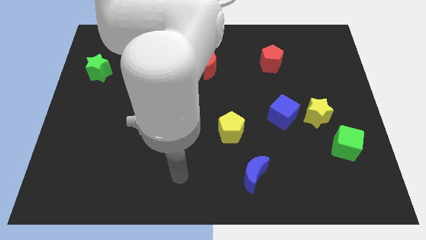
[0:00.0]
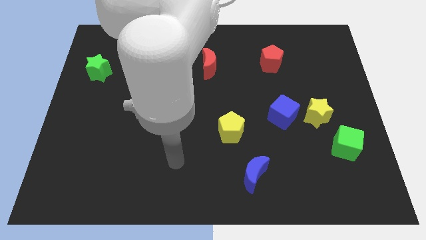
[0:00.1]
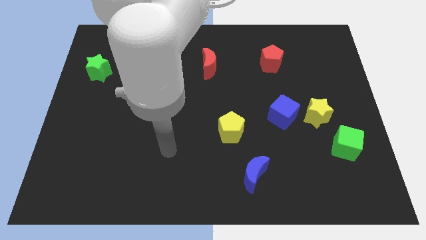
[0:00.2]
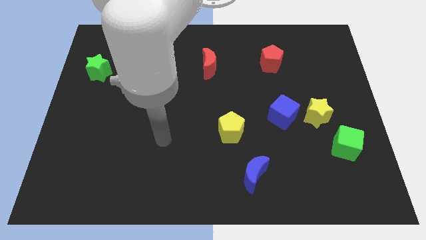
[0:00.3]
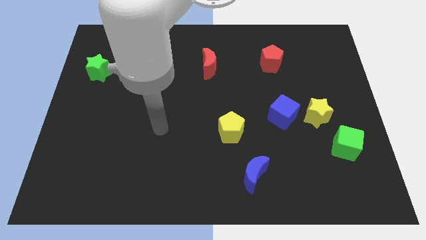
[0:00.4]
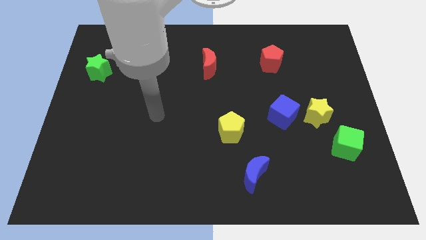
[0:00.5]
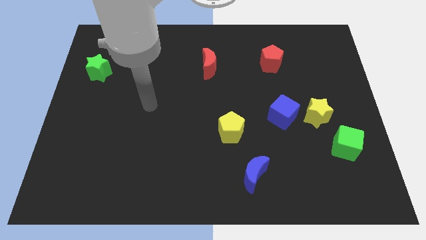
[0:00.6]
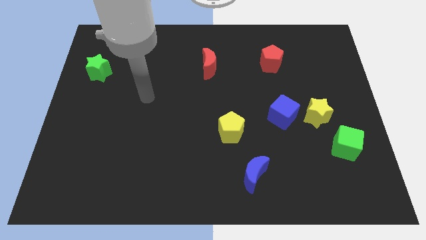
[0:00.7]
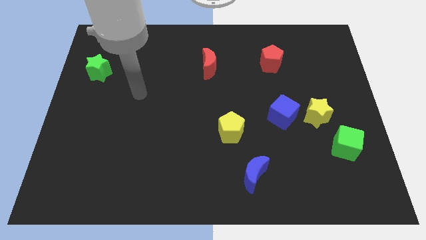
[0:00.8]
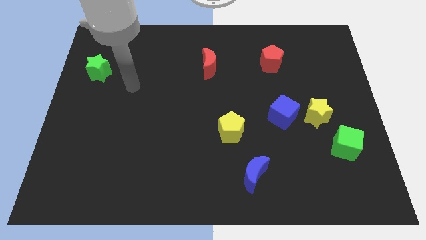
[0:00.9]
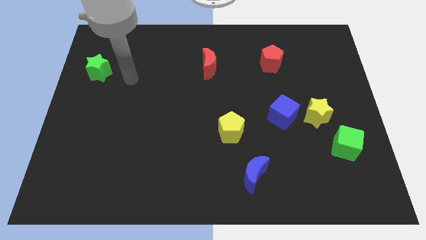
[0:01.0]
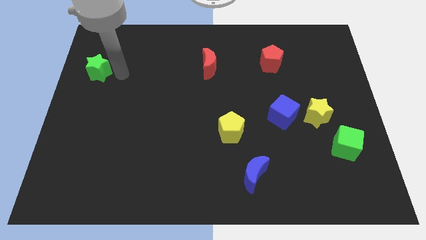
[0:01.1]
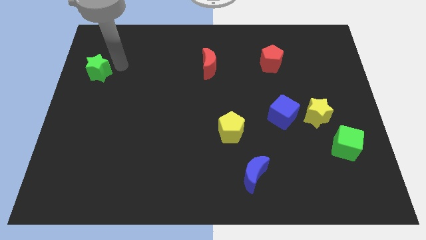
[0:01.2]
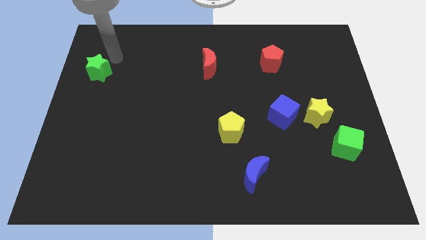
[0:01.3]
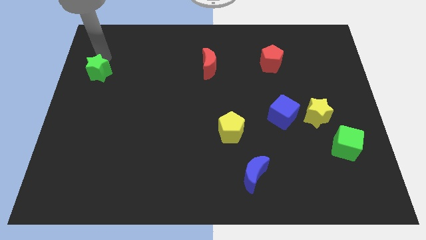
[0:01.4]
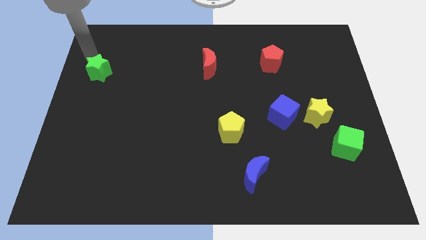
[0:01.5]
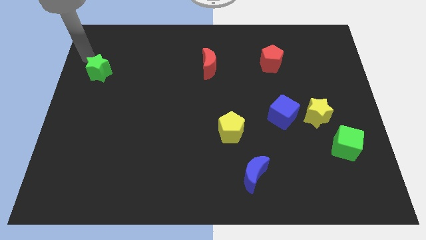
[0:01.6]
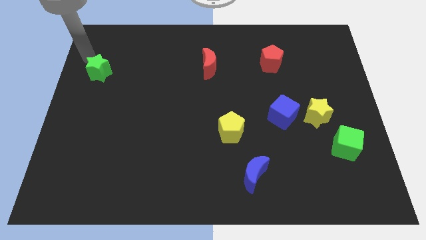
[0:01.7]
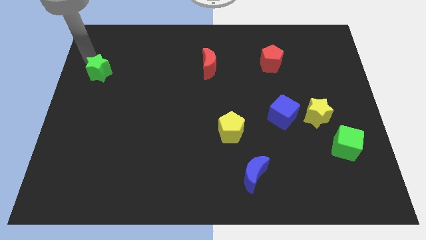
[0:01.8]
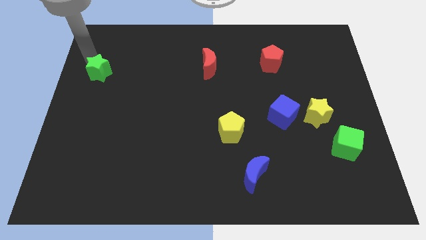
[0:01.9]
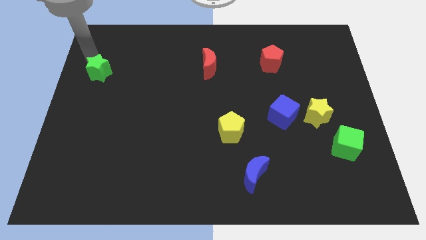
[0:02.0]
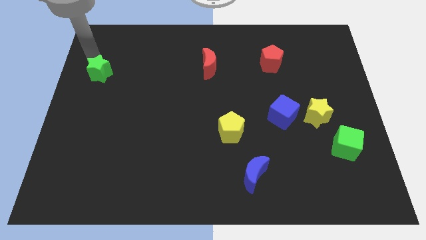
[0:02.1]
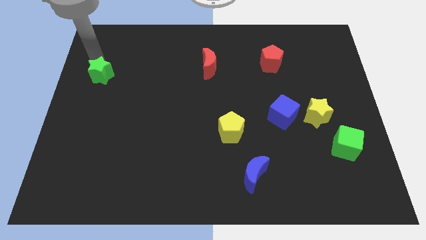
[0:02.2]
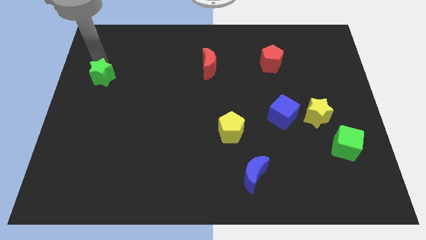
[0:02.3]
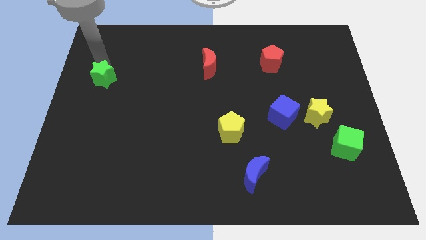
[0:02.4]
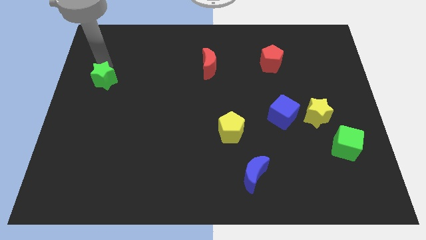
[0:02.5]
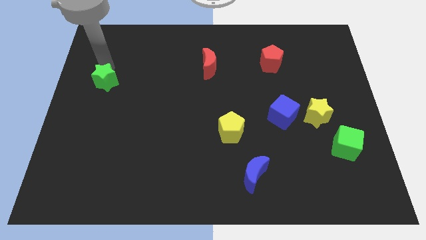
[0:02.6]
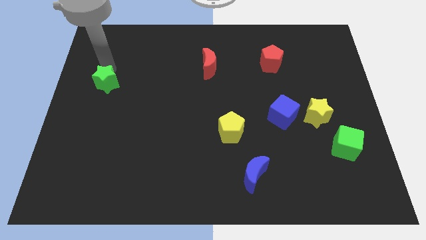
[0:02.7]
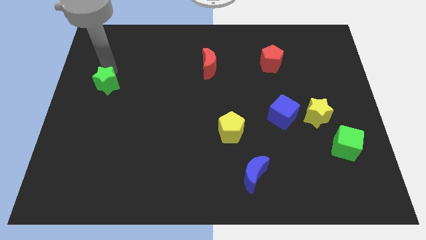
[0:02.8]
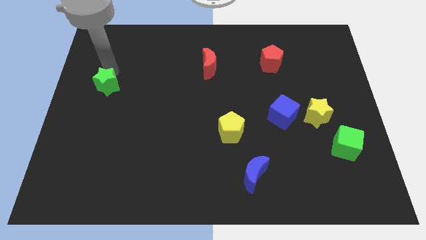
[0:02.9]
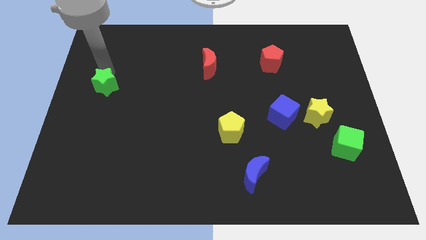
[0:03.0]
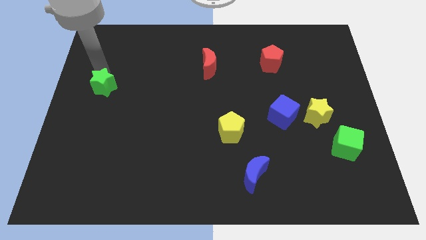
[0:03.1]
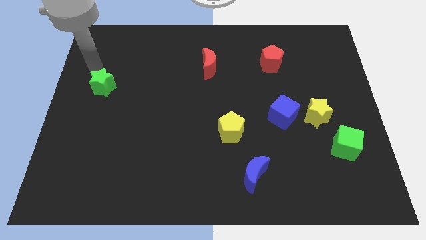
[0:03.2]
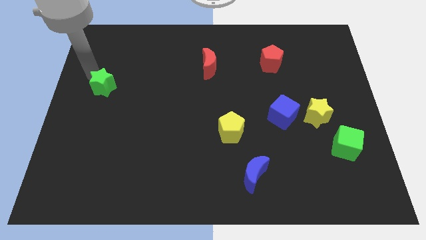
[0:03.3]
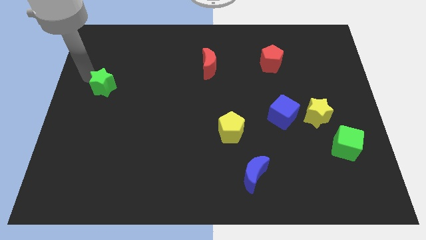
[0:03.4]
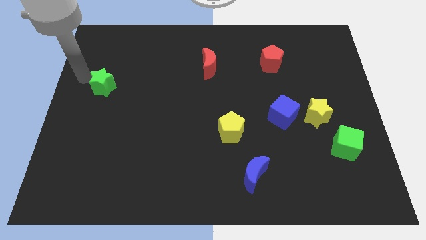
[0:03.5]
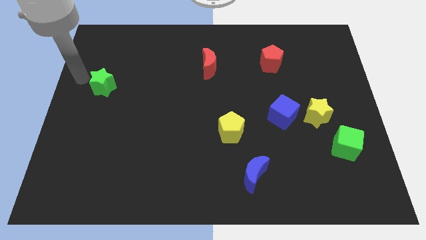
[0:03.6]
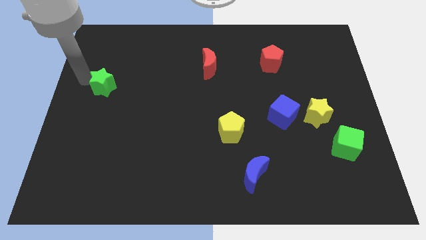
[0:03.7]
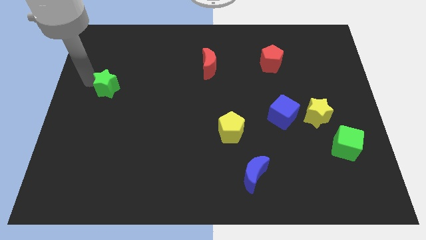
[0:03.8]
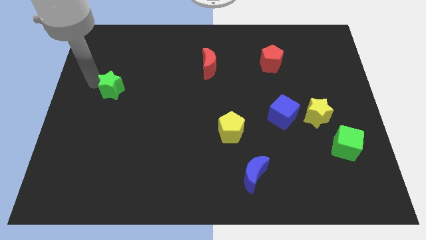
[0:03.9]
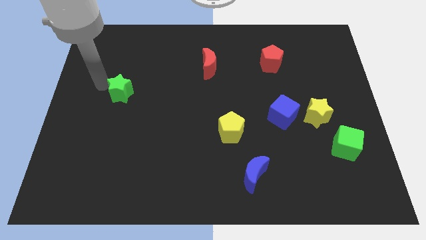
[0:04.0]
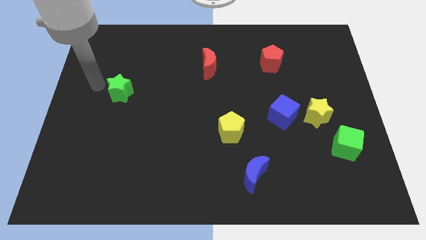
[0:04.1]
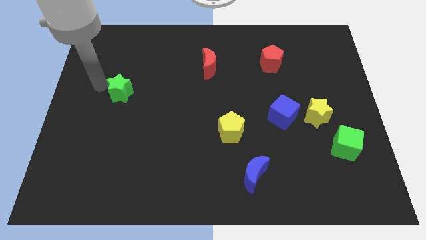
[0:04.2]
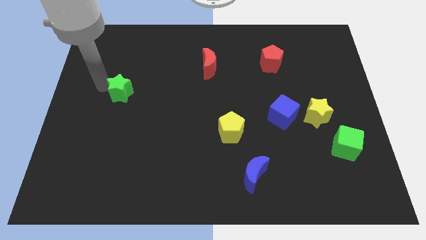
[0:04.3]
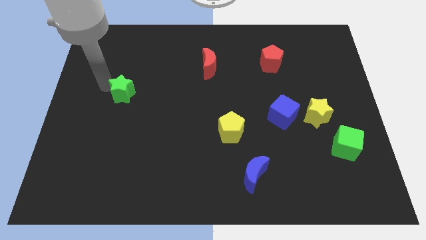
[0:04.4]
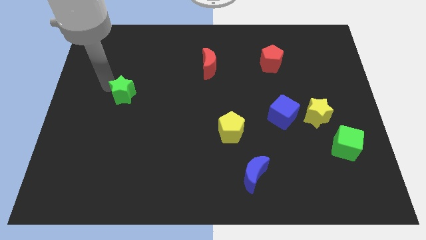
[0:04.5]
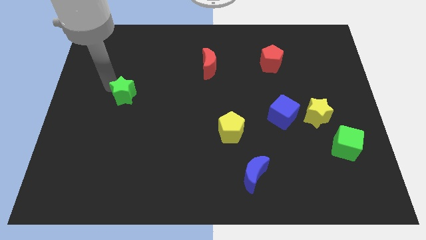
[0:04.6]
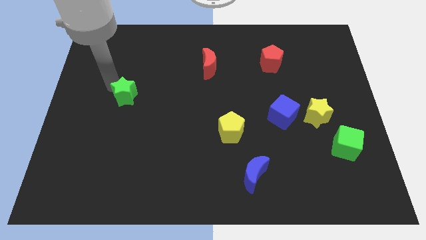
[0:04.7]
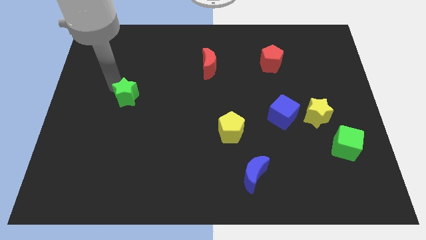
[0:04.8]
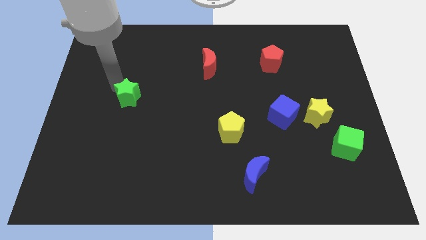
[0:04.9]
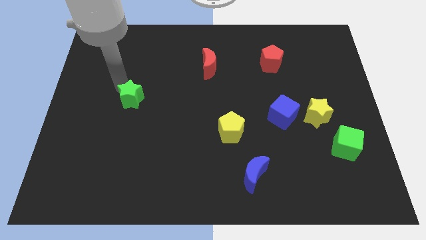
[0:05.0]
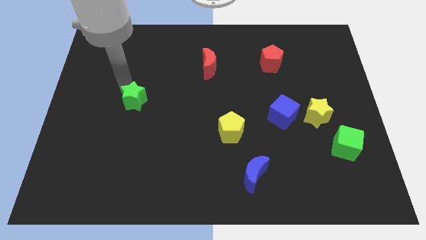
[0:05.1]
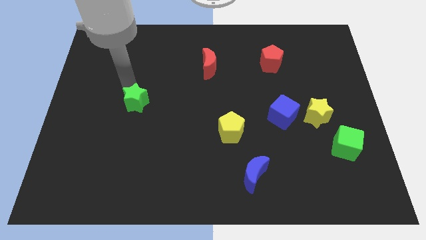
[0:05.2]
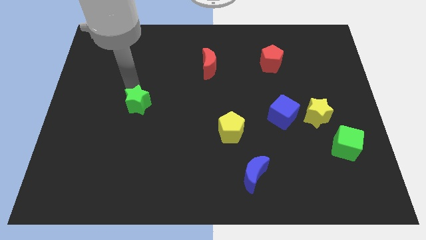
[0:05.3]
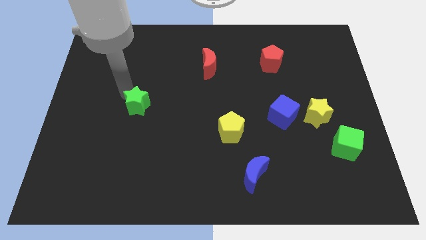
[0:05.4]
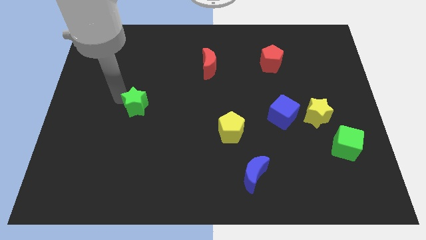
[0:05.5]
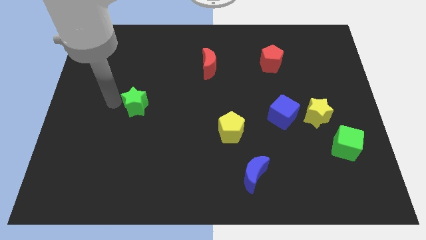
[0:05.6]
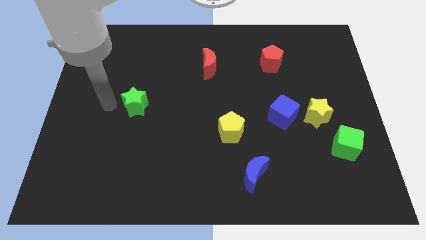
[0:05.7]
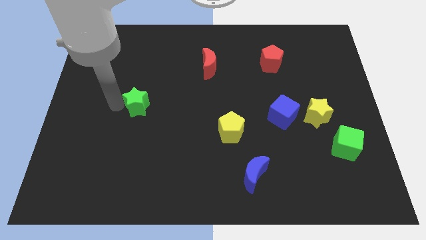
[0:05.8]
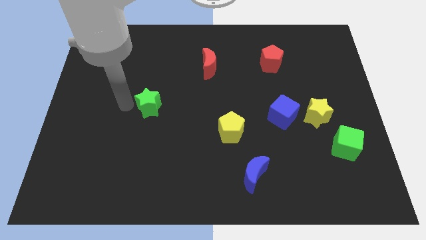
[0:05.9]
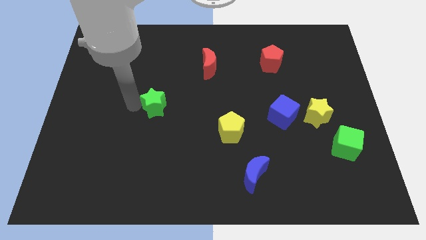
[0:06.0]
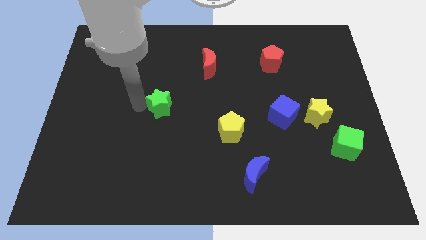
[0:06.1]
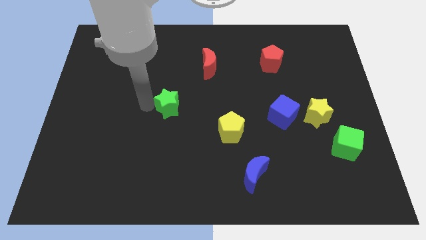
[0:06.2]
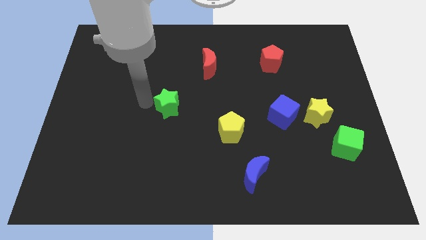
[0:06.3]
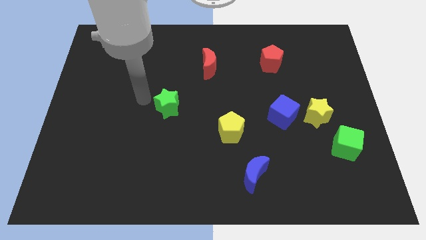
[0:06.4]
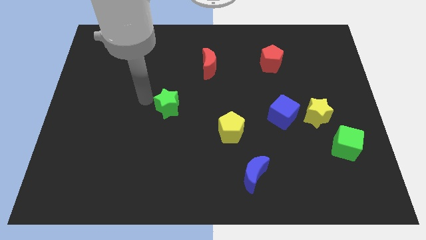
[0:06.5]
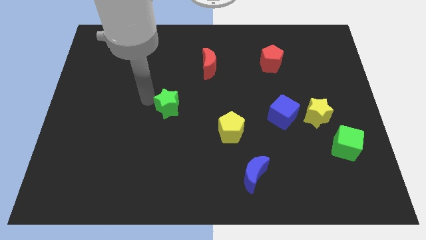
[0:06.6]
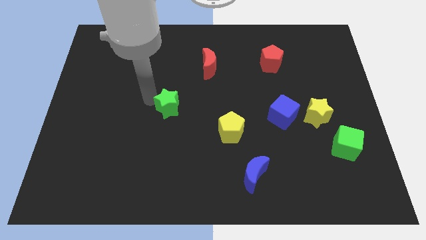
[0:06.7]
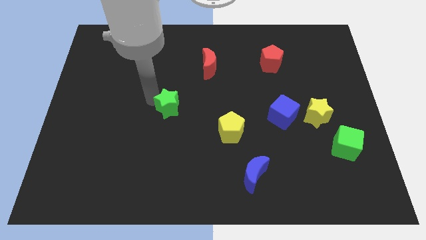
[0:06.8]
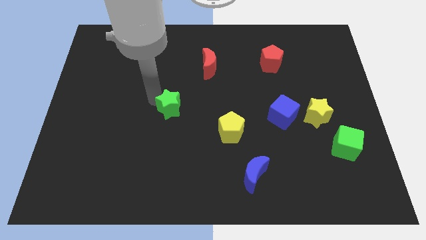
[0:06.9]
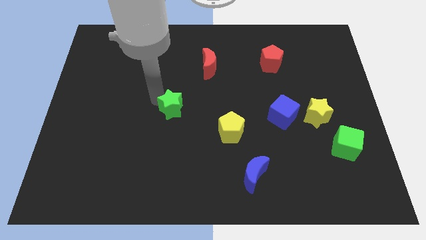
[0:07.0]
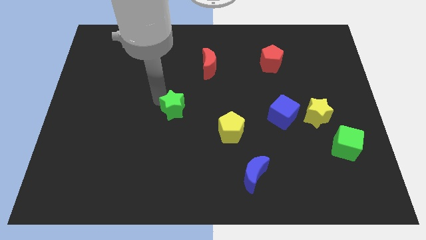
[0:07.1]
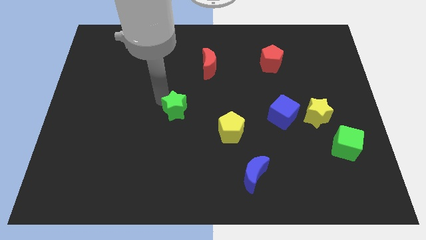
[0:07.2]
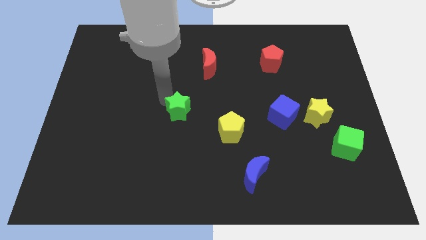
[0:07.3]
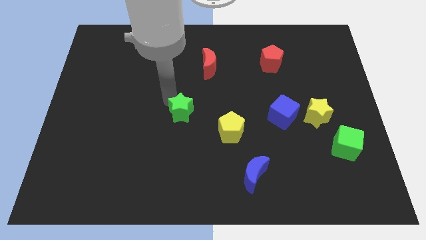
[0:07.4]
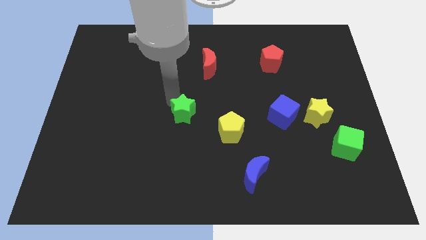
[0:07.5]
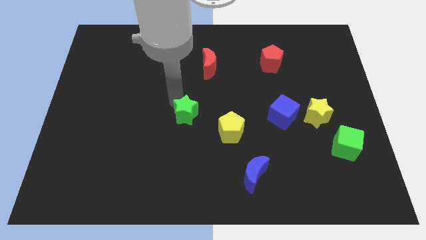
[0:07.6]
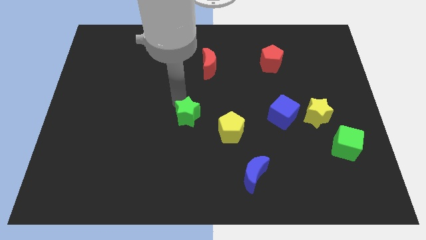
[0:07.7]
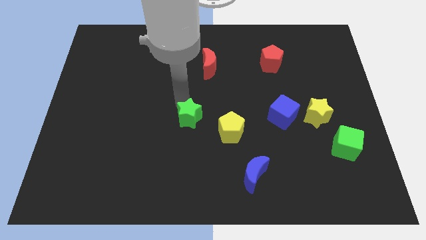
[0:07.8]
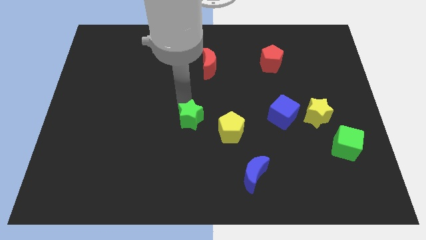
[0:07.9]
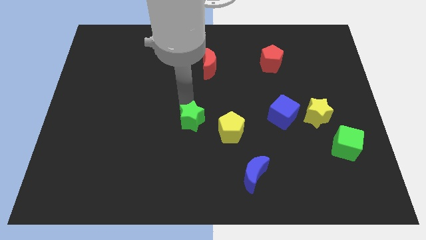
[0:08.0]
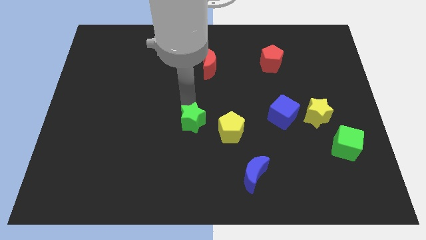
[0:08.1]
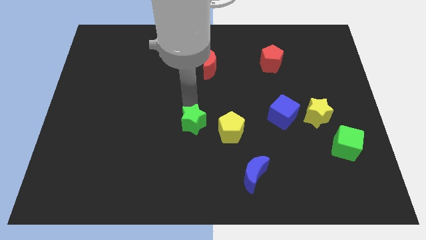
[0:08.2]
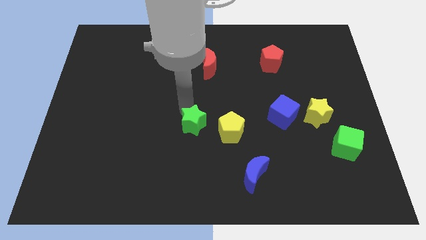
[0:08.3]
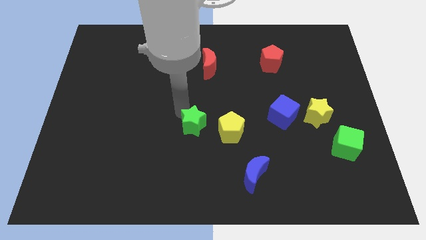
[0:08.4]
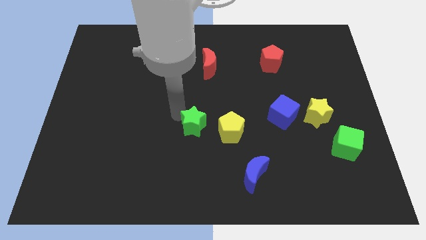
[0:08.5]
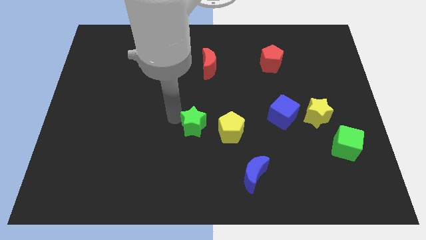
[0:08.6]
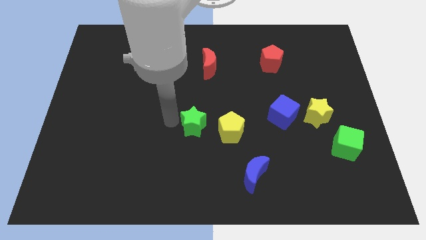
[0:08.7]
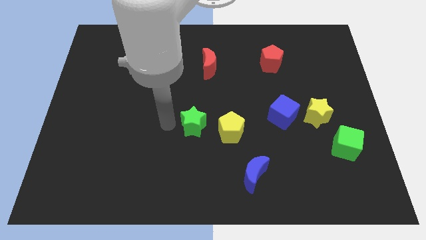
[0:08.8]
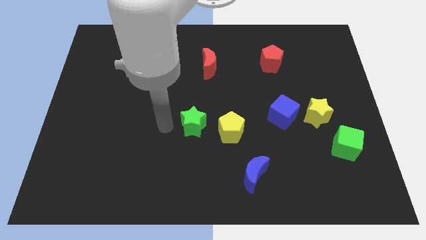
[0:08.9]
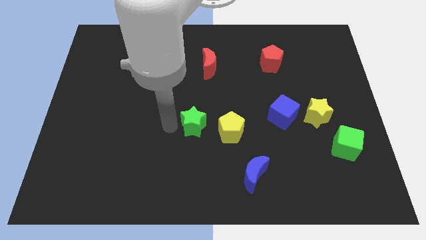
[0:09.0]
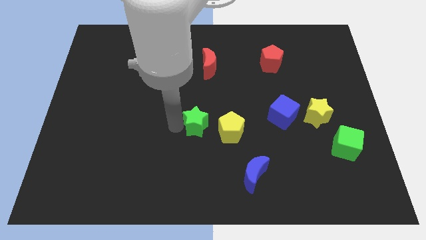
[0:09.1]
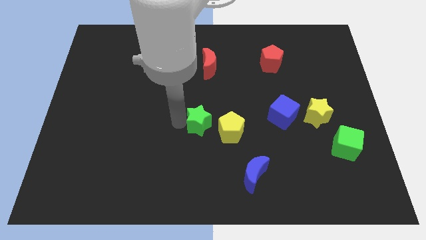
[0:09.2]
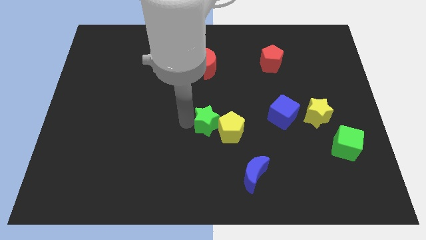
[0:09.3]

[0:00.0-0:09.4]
push the green star close to the yellow pentagon
